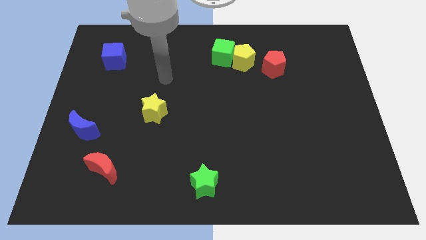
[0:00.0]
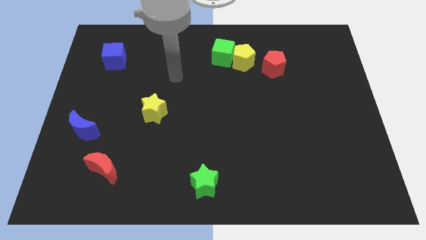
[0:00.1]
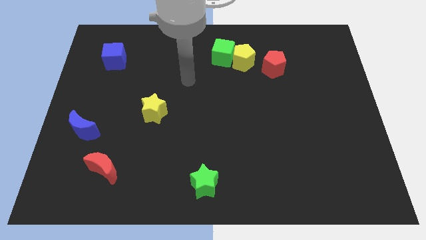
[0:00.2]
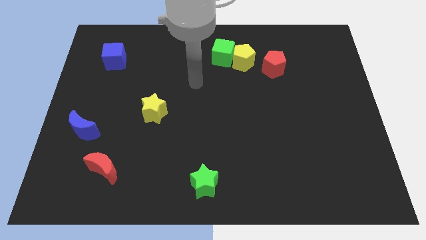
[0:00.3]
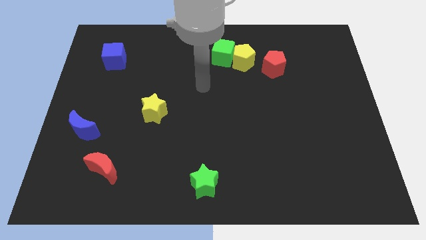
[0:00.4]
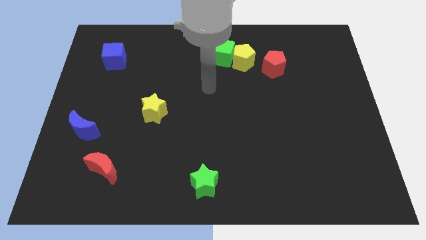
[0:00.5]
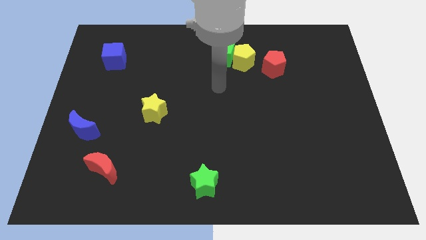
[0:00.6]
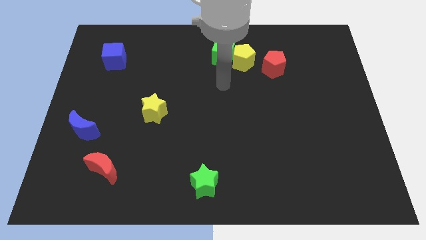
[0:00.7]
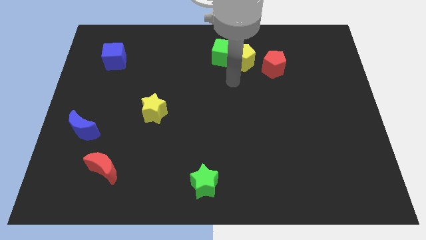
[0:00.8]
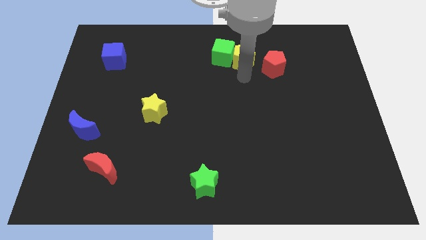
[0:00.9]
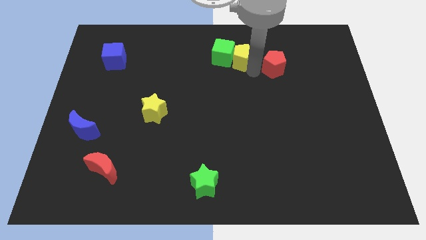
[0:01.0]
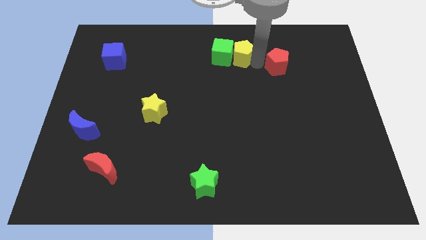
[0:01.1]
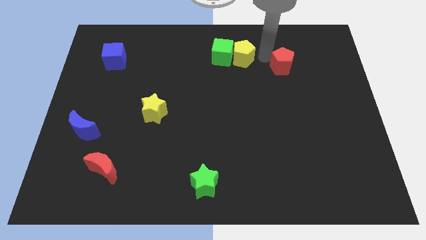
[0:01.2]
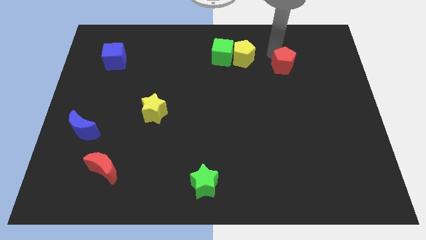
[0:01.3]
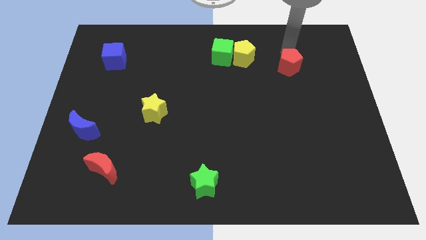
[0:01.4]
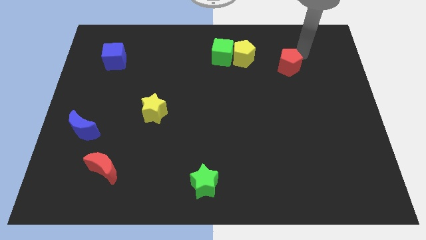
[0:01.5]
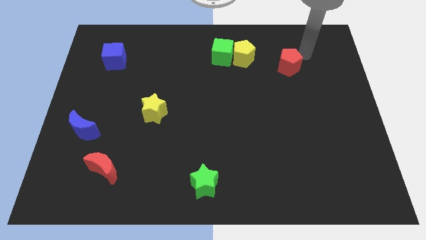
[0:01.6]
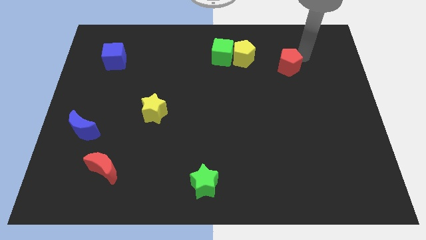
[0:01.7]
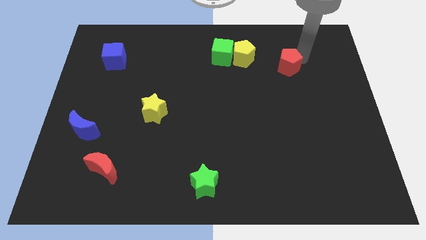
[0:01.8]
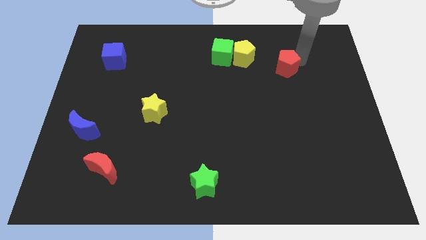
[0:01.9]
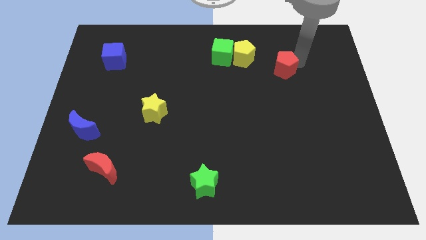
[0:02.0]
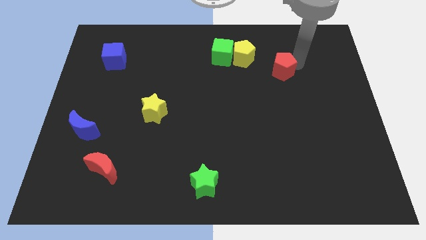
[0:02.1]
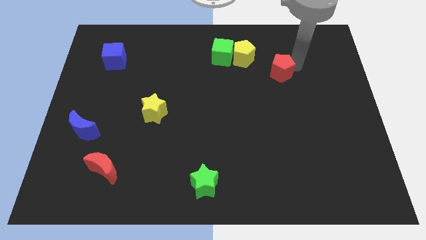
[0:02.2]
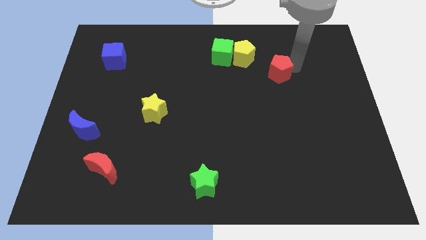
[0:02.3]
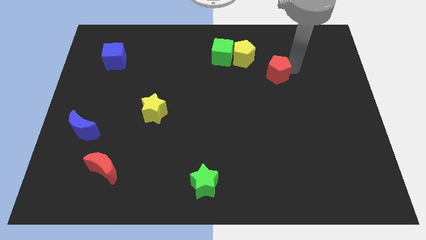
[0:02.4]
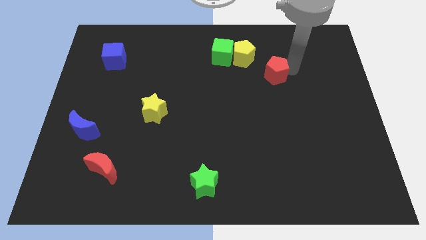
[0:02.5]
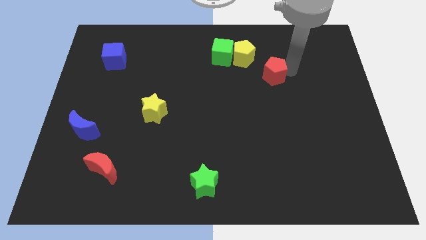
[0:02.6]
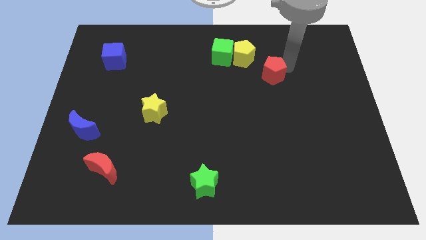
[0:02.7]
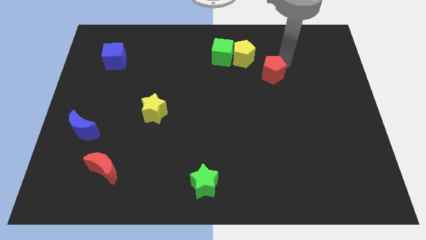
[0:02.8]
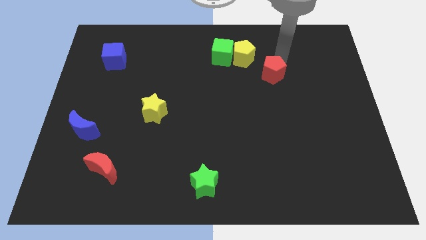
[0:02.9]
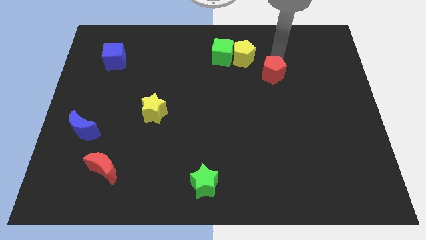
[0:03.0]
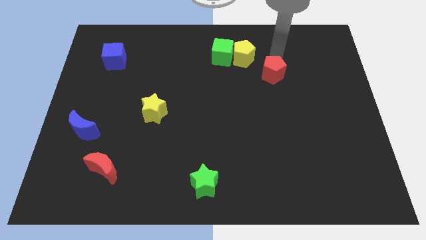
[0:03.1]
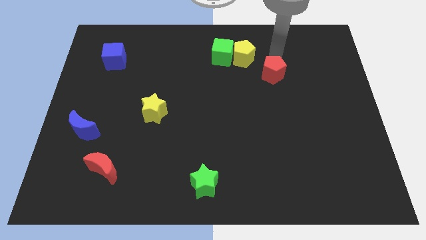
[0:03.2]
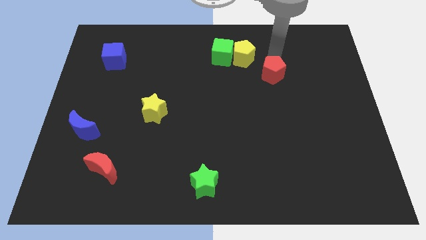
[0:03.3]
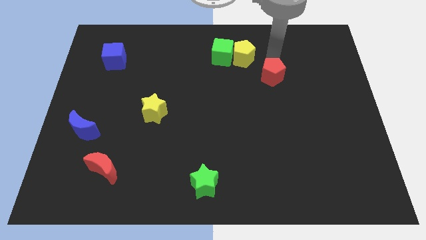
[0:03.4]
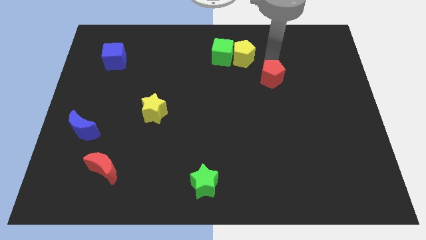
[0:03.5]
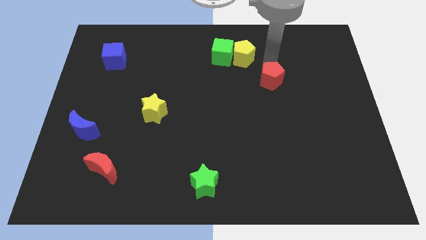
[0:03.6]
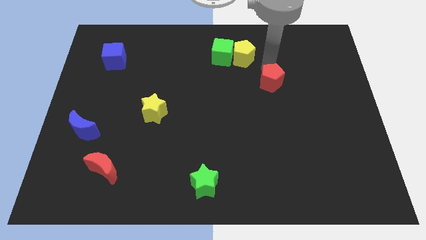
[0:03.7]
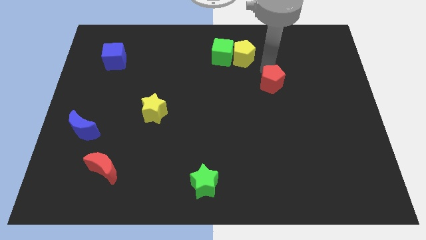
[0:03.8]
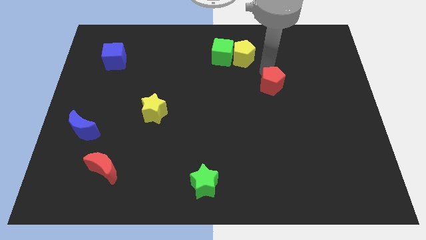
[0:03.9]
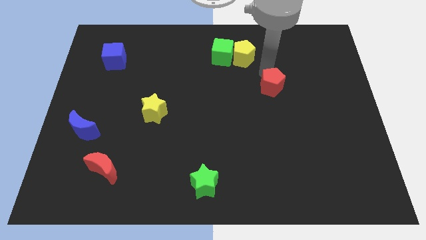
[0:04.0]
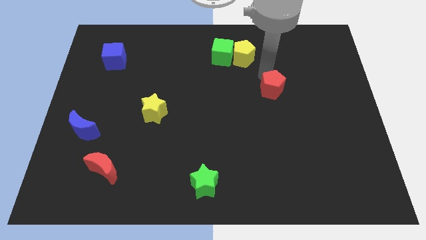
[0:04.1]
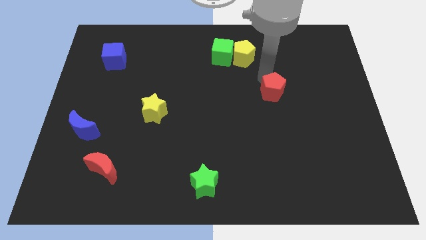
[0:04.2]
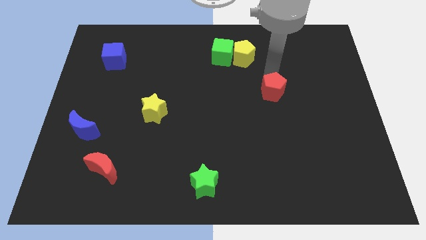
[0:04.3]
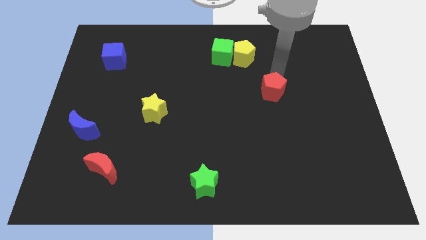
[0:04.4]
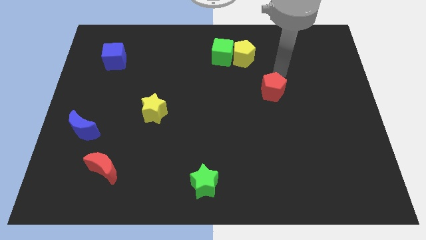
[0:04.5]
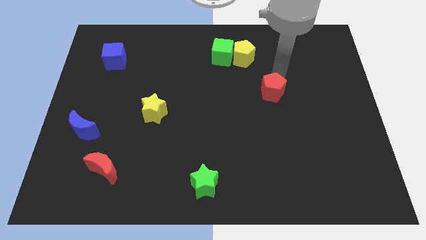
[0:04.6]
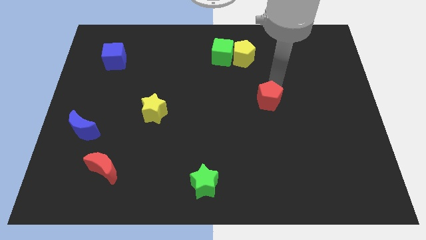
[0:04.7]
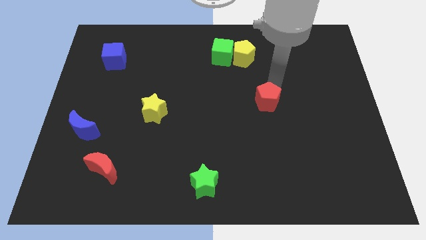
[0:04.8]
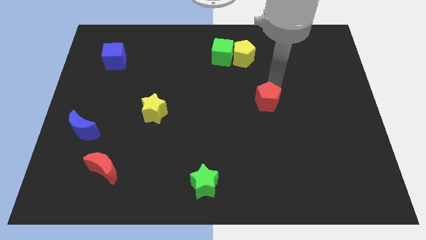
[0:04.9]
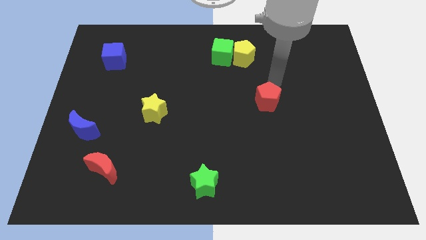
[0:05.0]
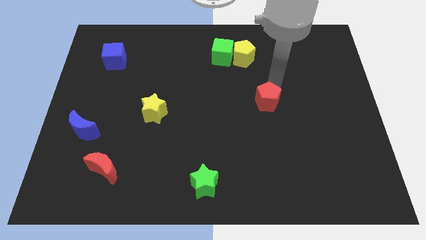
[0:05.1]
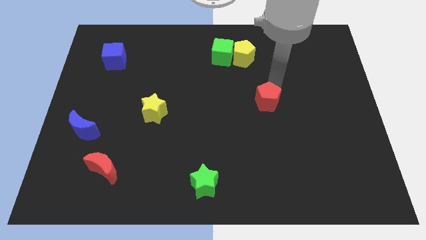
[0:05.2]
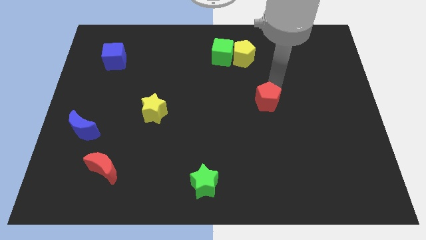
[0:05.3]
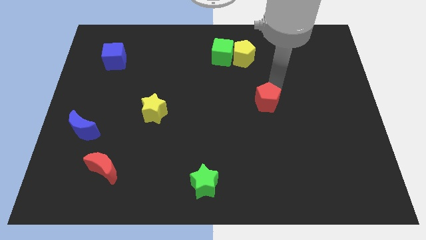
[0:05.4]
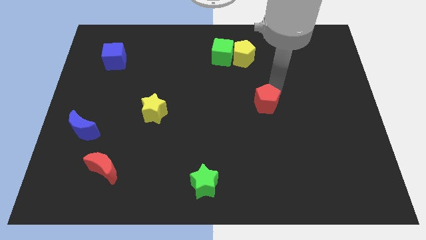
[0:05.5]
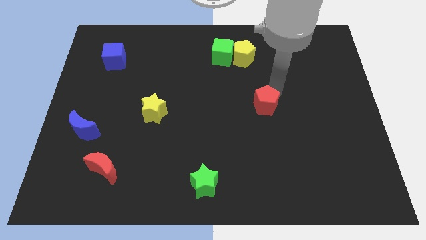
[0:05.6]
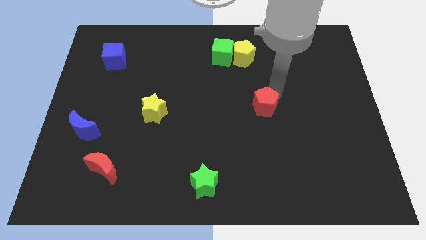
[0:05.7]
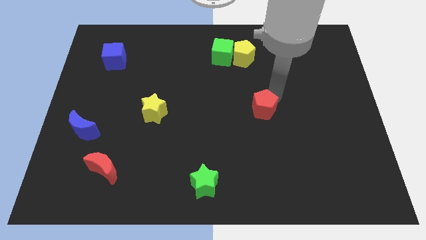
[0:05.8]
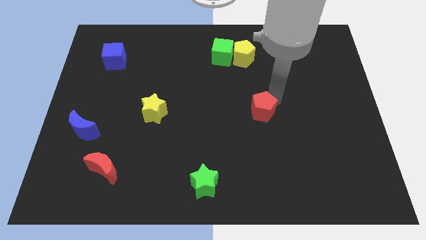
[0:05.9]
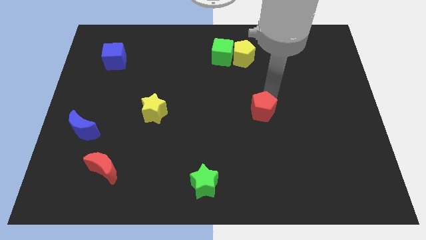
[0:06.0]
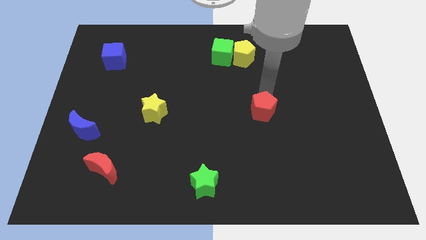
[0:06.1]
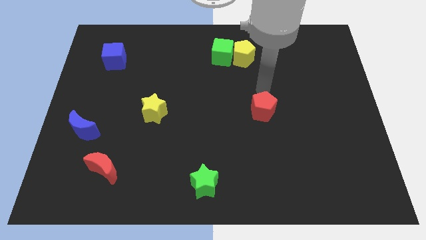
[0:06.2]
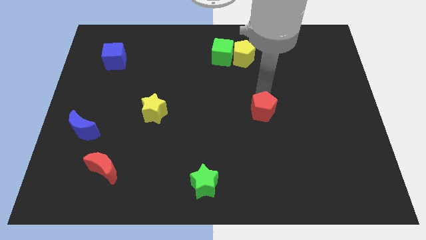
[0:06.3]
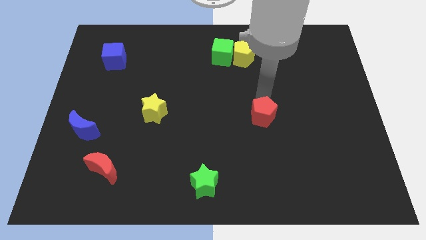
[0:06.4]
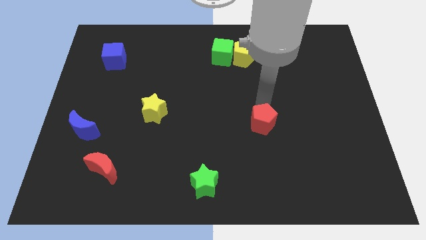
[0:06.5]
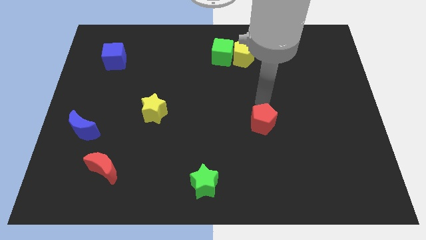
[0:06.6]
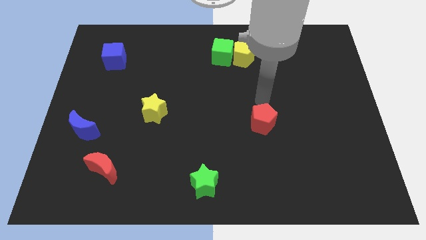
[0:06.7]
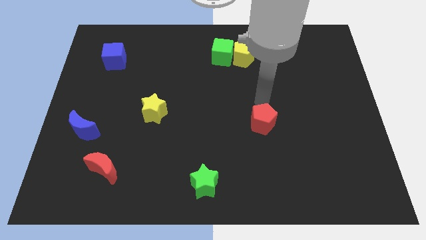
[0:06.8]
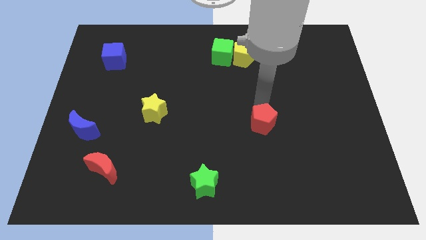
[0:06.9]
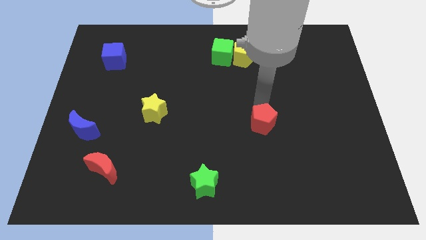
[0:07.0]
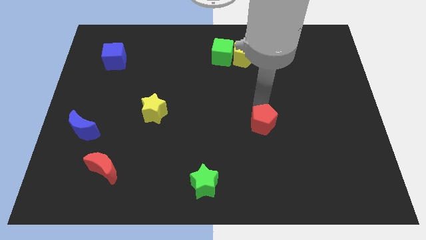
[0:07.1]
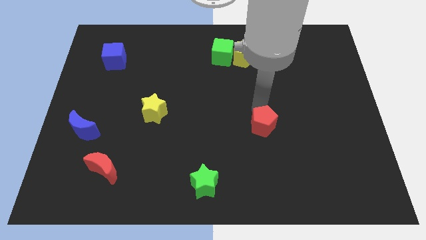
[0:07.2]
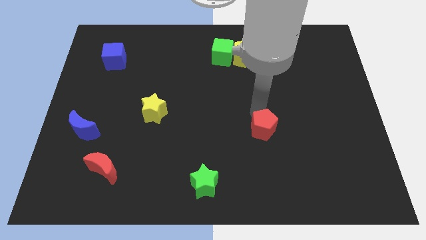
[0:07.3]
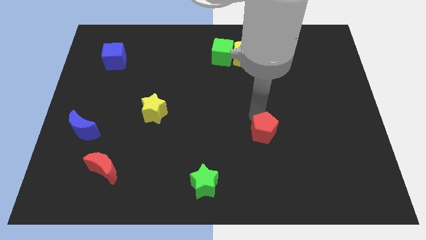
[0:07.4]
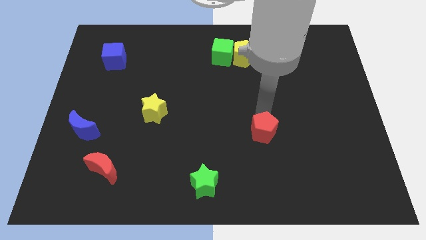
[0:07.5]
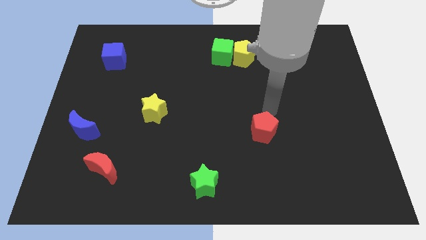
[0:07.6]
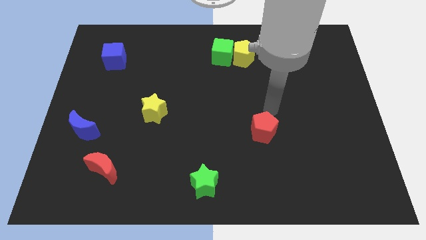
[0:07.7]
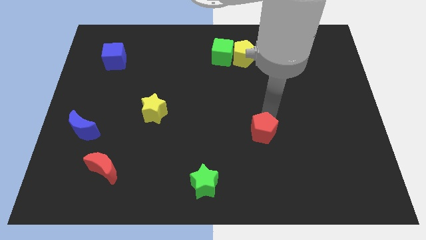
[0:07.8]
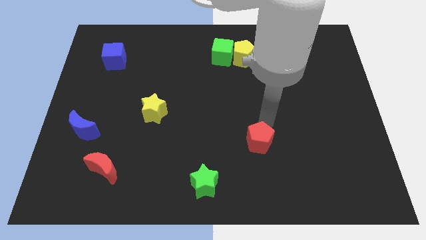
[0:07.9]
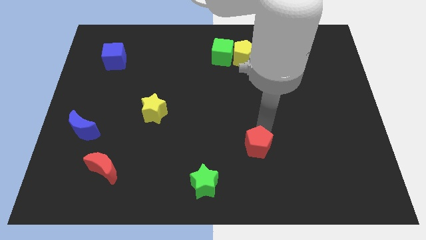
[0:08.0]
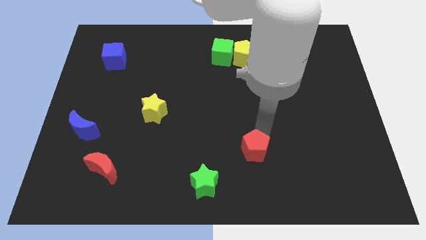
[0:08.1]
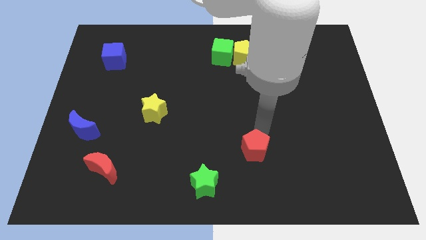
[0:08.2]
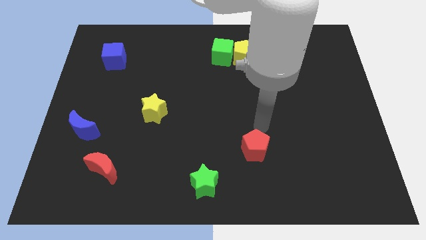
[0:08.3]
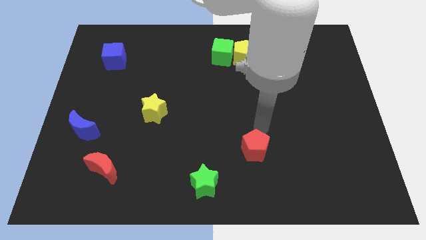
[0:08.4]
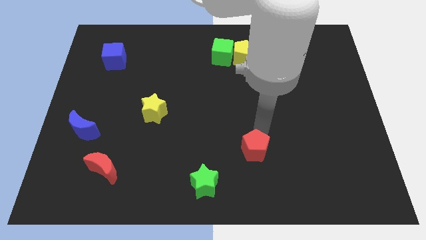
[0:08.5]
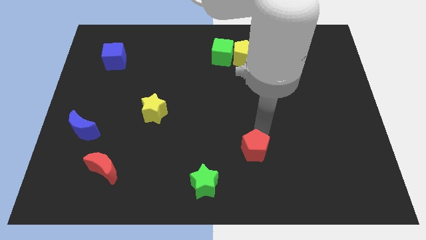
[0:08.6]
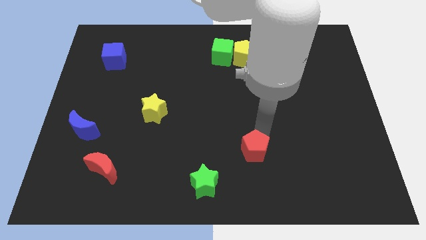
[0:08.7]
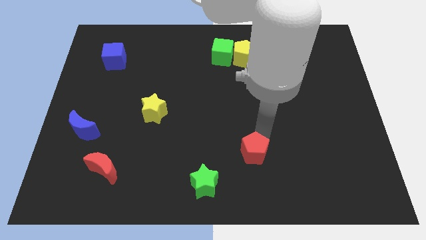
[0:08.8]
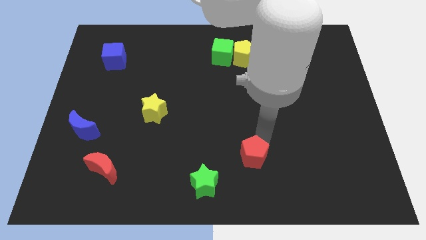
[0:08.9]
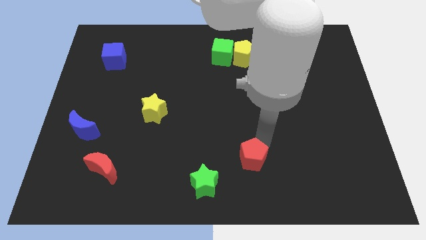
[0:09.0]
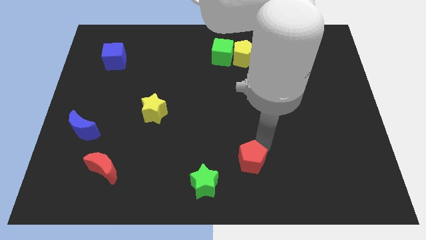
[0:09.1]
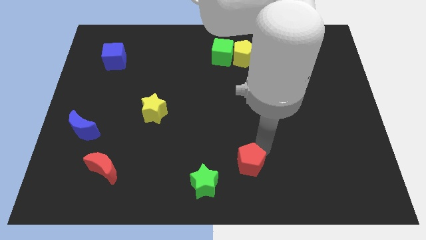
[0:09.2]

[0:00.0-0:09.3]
push the red pentagon to the bottom
